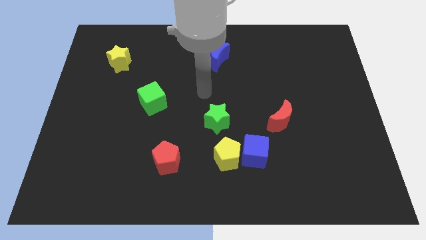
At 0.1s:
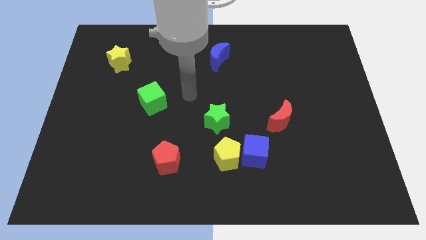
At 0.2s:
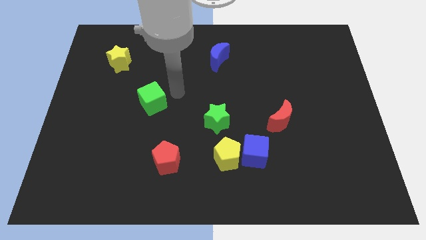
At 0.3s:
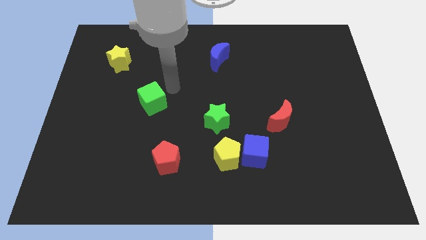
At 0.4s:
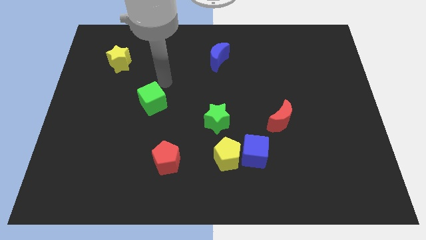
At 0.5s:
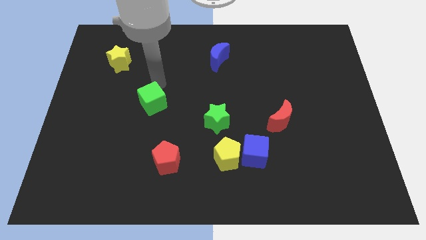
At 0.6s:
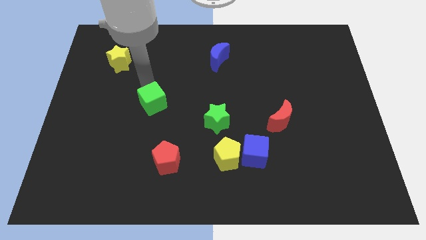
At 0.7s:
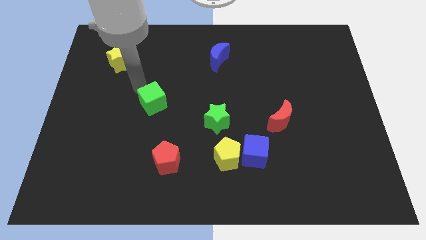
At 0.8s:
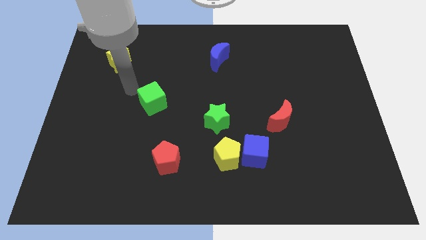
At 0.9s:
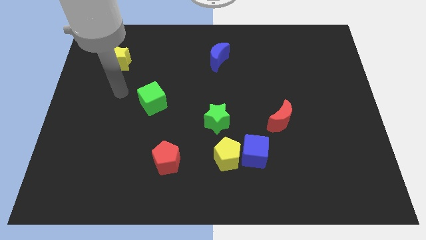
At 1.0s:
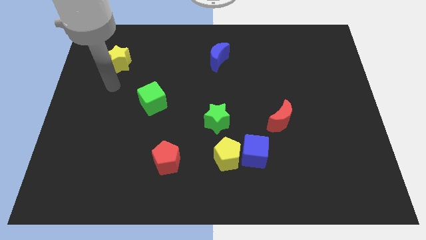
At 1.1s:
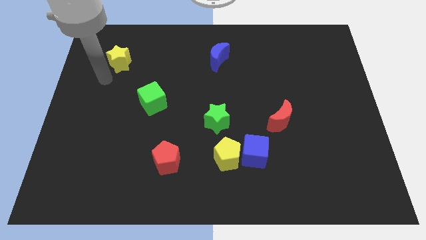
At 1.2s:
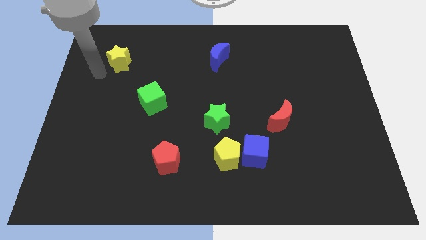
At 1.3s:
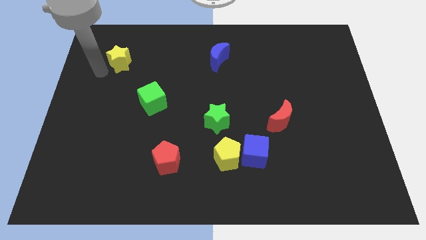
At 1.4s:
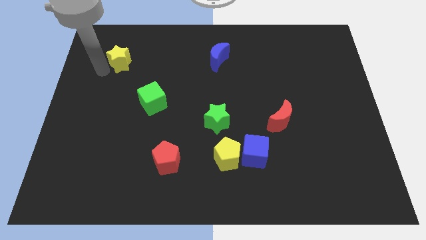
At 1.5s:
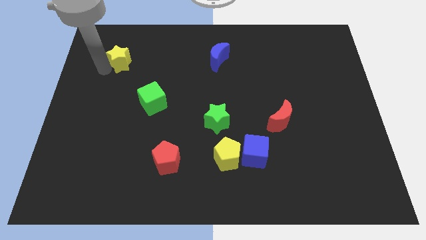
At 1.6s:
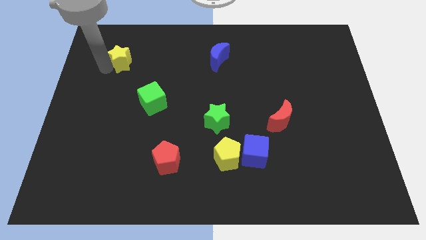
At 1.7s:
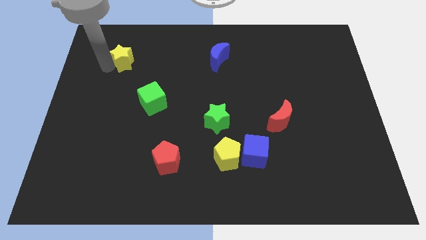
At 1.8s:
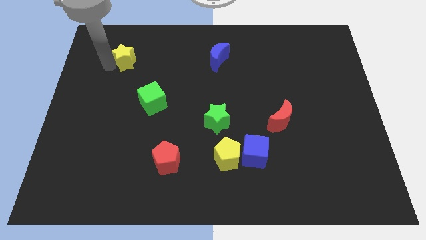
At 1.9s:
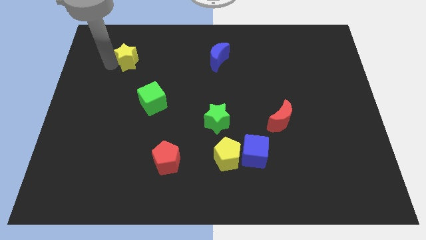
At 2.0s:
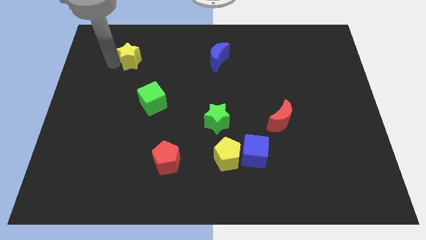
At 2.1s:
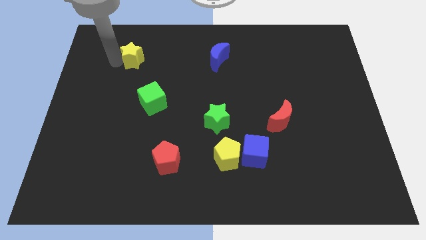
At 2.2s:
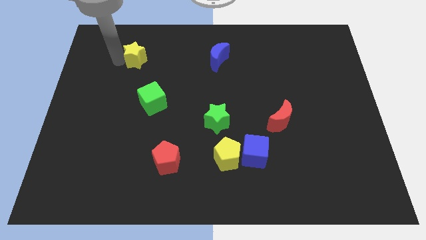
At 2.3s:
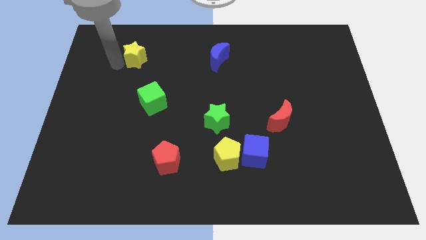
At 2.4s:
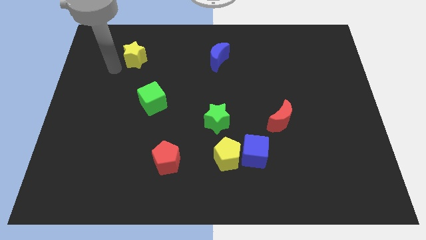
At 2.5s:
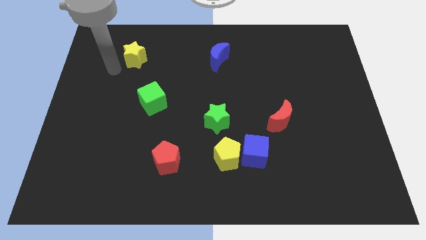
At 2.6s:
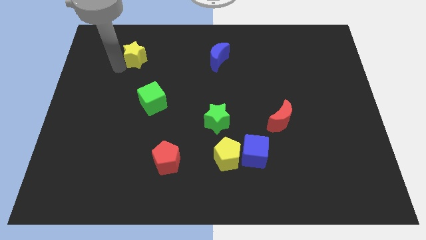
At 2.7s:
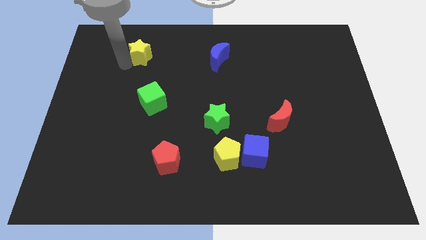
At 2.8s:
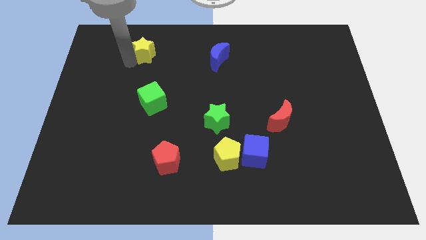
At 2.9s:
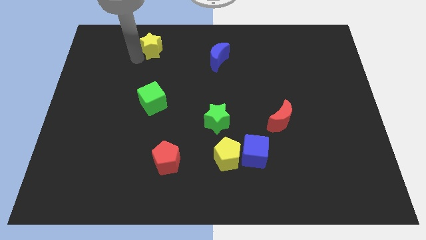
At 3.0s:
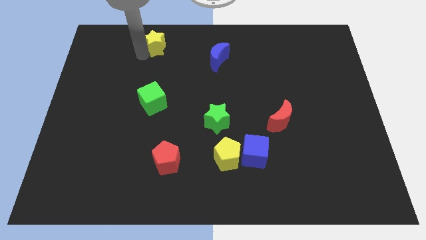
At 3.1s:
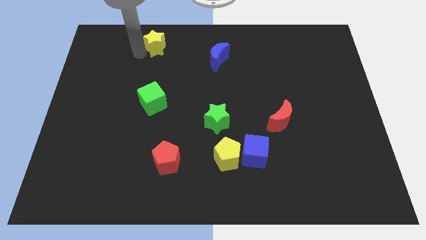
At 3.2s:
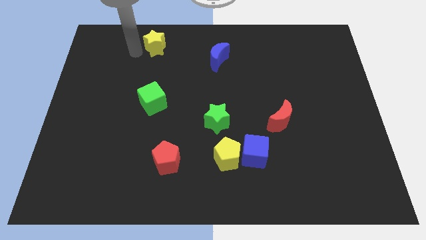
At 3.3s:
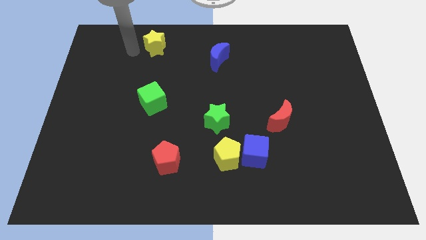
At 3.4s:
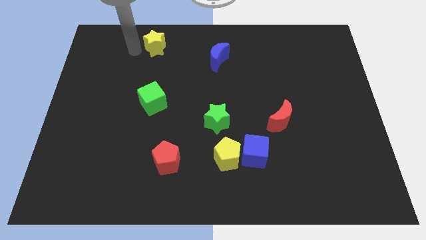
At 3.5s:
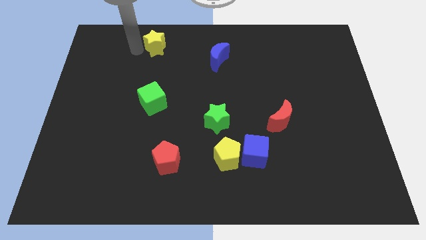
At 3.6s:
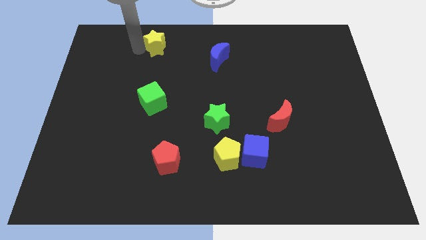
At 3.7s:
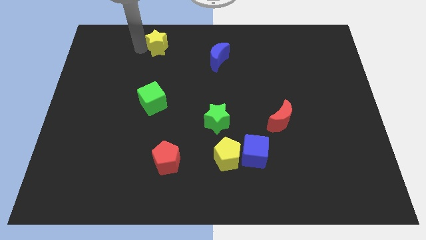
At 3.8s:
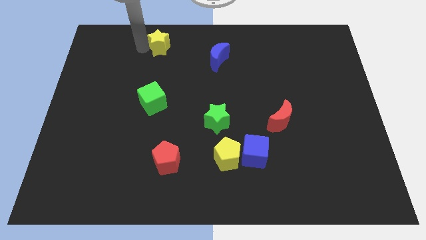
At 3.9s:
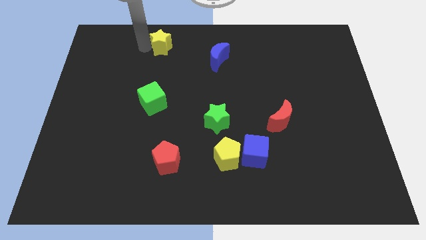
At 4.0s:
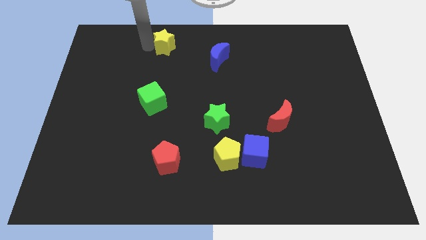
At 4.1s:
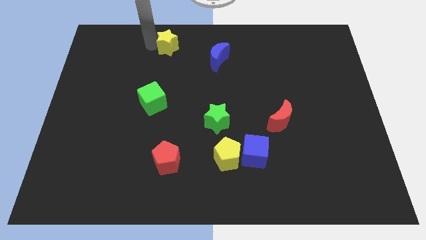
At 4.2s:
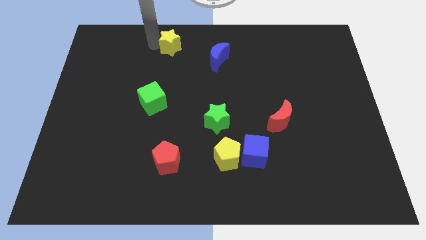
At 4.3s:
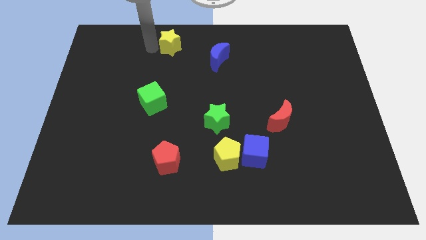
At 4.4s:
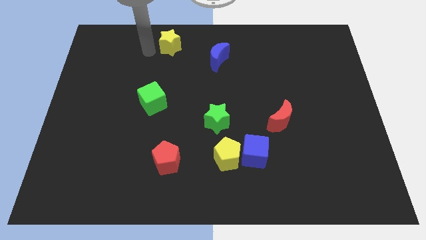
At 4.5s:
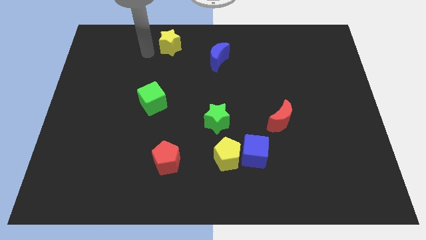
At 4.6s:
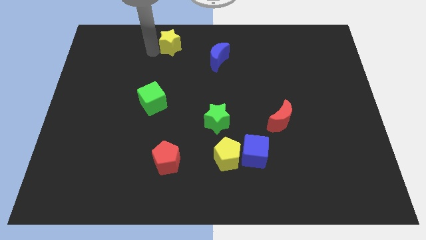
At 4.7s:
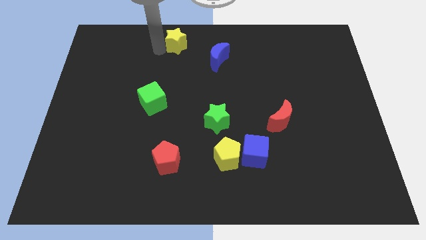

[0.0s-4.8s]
move the yellow star to the towards your base

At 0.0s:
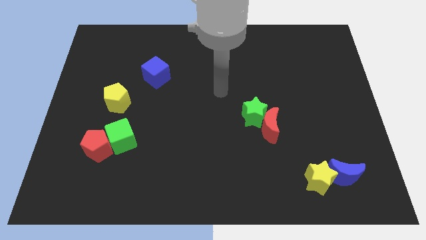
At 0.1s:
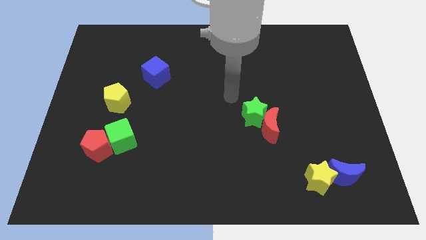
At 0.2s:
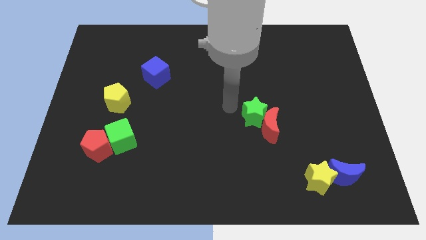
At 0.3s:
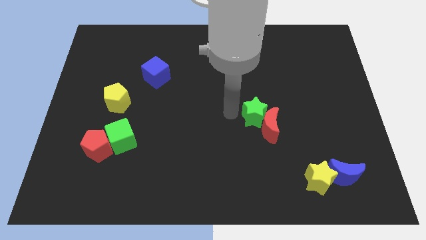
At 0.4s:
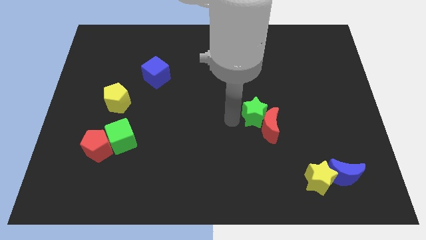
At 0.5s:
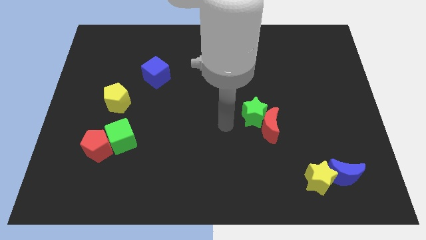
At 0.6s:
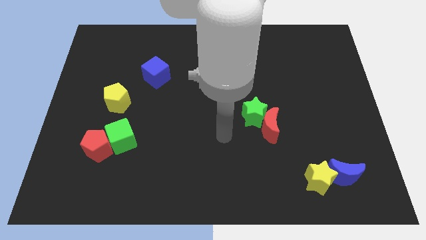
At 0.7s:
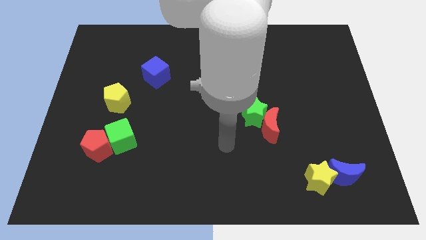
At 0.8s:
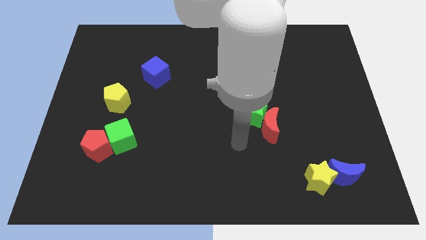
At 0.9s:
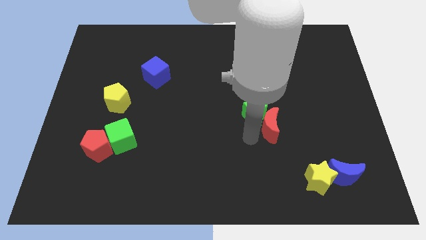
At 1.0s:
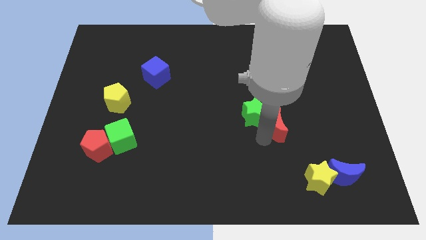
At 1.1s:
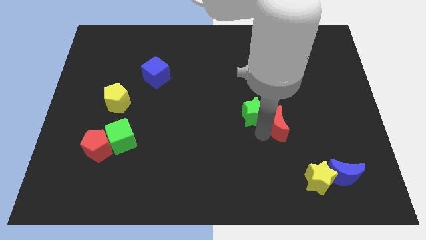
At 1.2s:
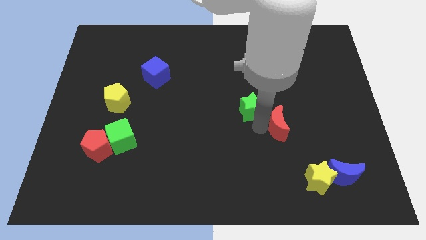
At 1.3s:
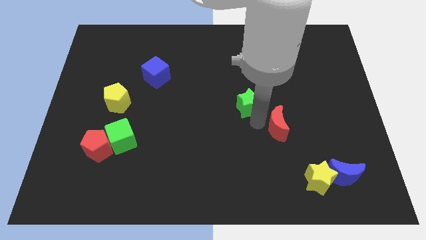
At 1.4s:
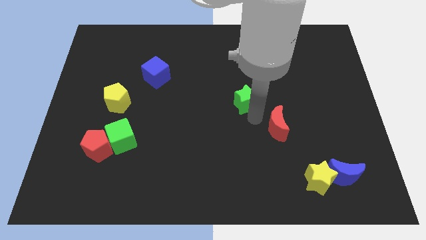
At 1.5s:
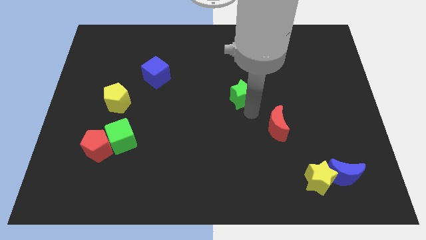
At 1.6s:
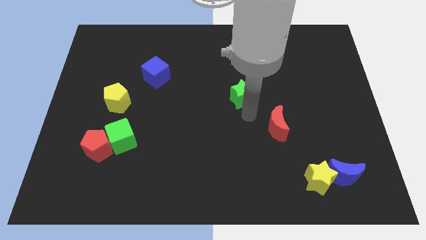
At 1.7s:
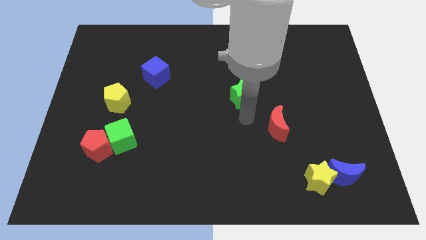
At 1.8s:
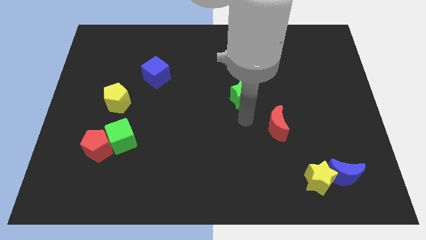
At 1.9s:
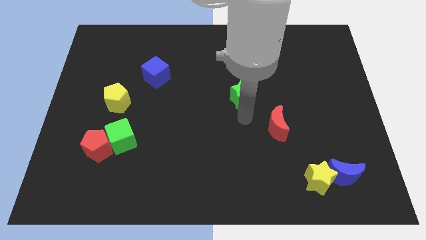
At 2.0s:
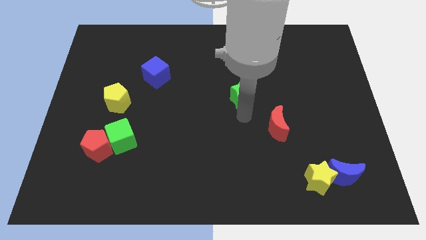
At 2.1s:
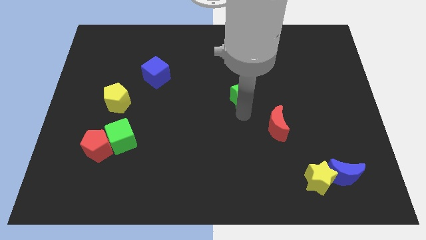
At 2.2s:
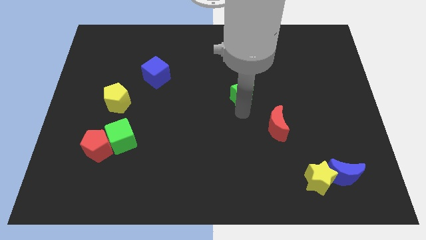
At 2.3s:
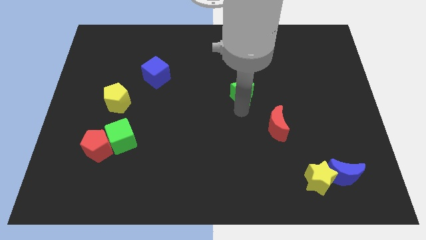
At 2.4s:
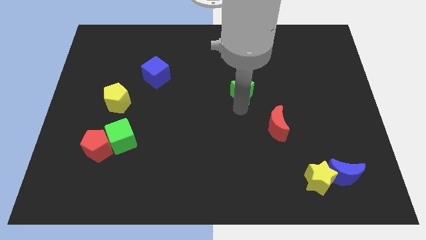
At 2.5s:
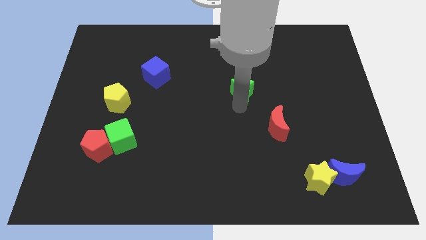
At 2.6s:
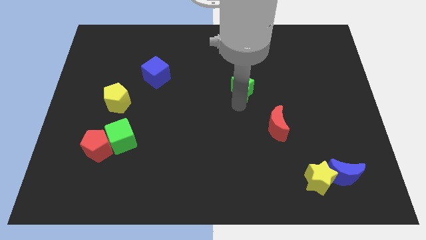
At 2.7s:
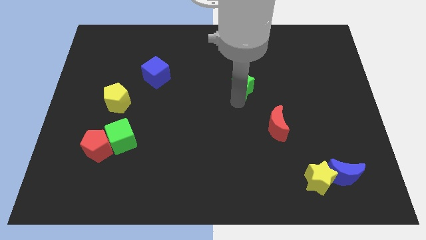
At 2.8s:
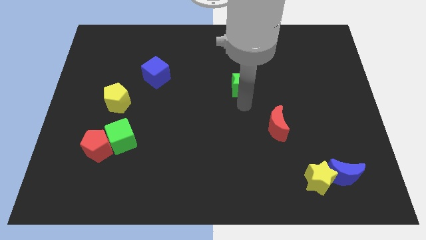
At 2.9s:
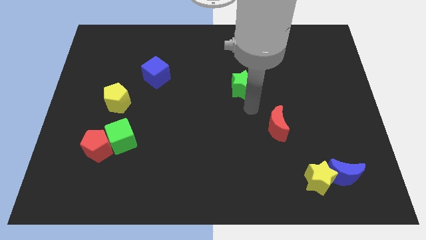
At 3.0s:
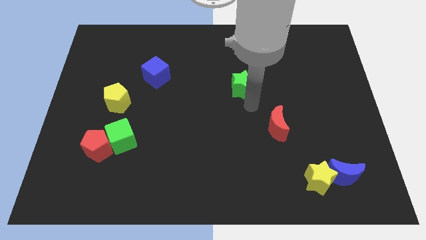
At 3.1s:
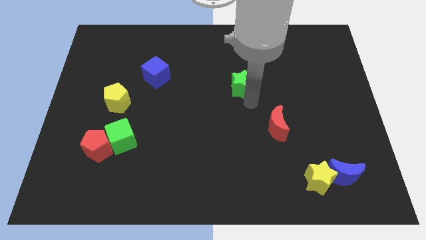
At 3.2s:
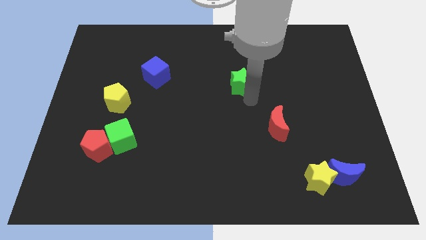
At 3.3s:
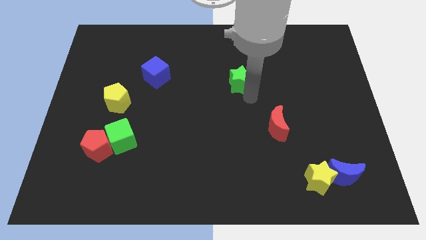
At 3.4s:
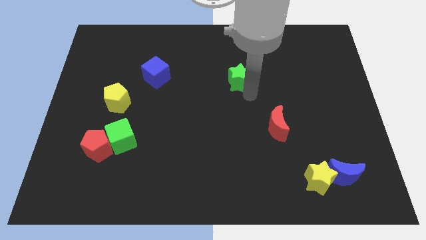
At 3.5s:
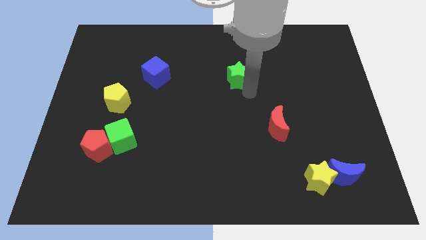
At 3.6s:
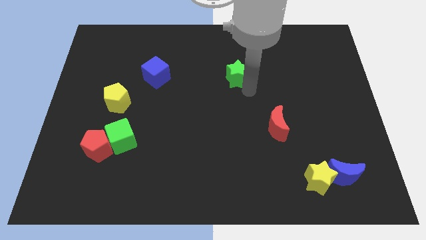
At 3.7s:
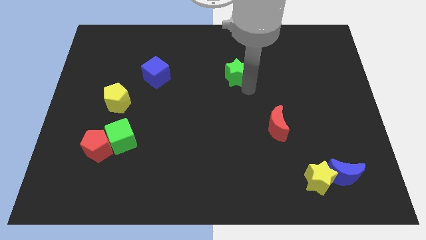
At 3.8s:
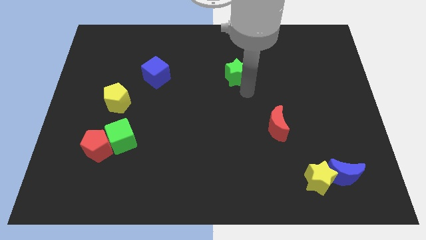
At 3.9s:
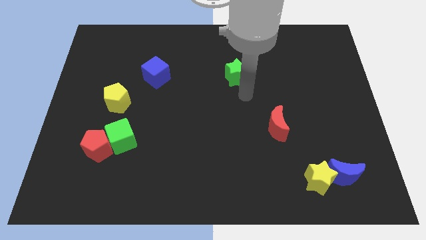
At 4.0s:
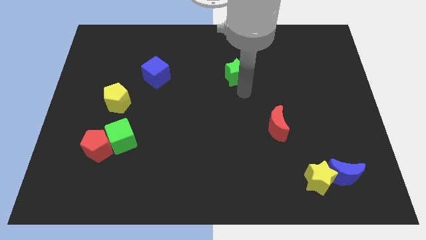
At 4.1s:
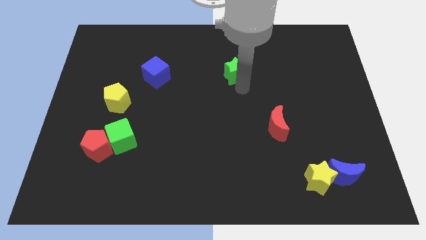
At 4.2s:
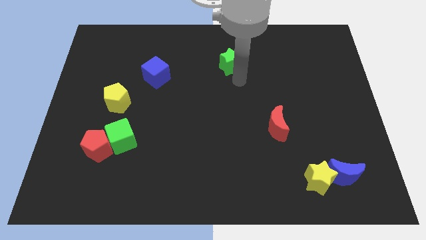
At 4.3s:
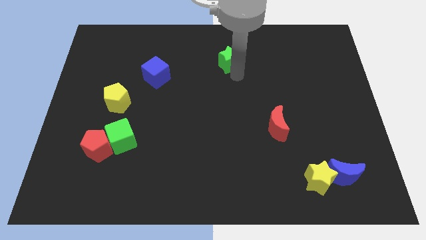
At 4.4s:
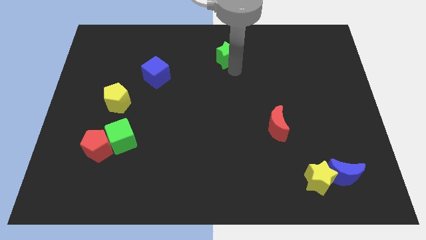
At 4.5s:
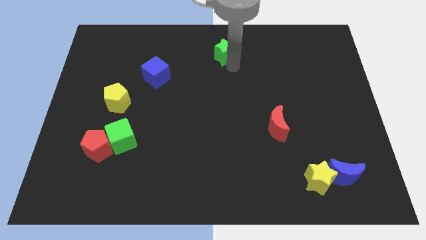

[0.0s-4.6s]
push the green star to the top
